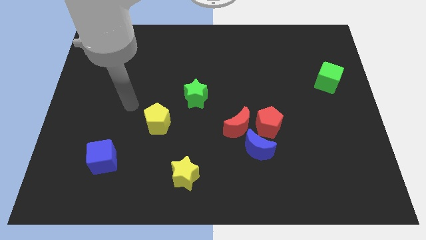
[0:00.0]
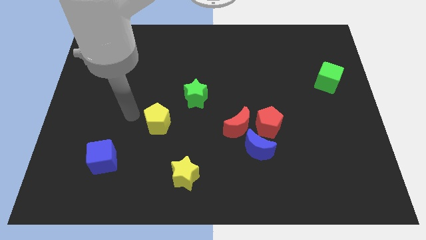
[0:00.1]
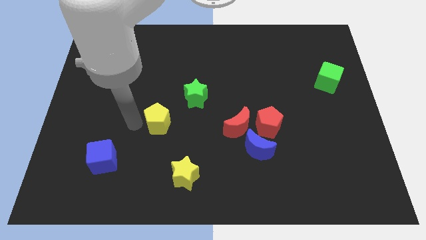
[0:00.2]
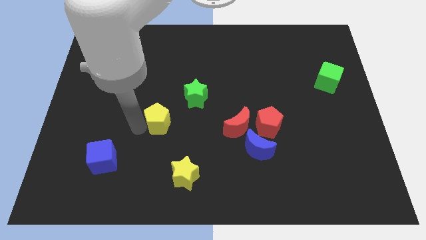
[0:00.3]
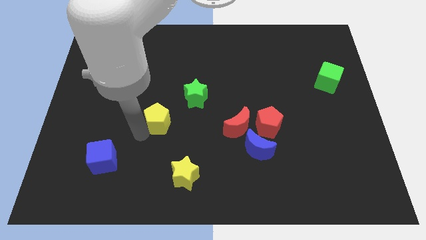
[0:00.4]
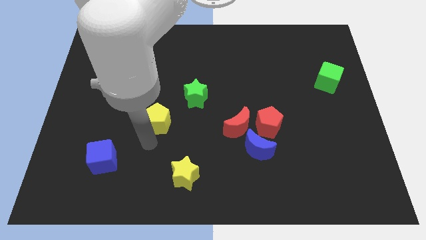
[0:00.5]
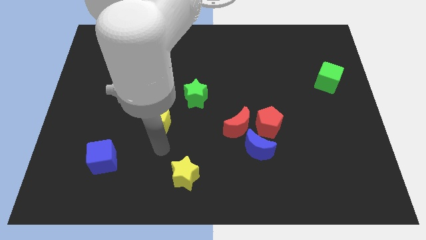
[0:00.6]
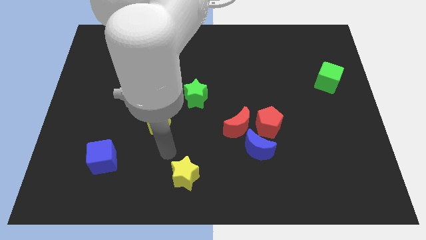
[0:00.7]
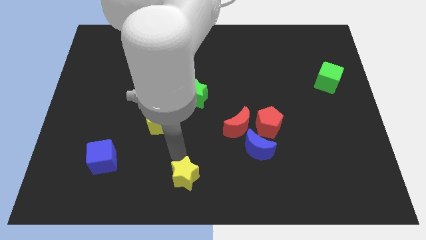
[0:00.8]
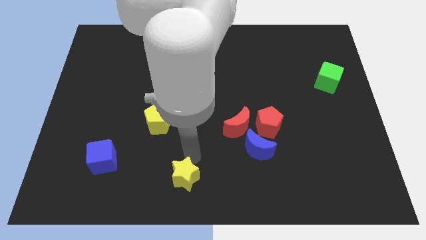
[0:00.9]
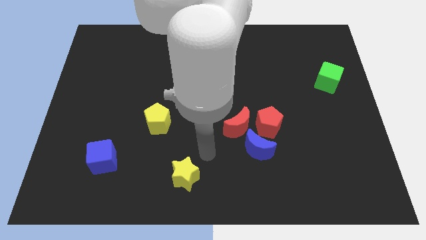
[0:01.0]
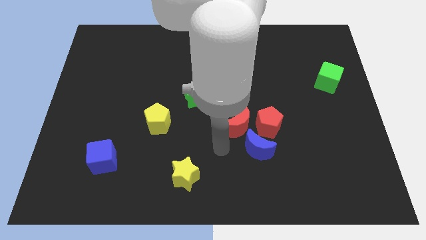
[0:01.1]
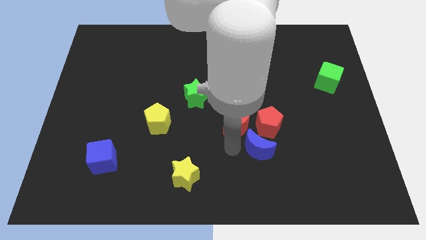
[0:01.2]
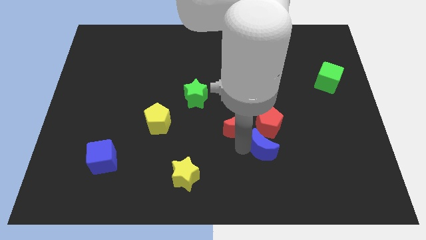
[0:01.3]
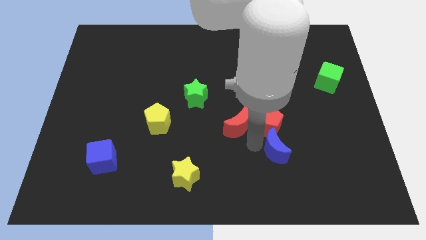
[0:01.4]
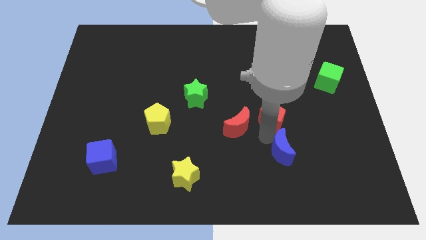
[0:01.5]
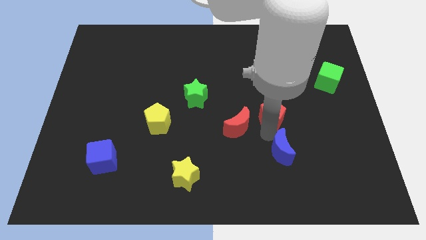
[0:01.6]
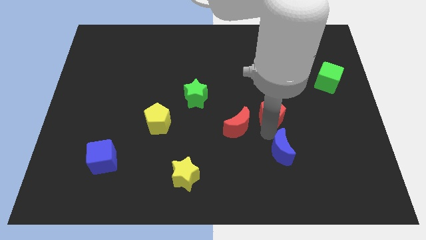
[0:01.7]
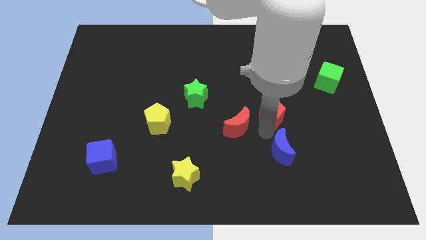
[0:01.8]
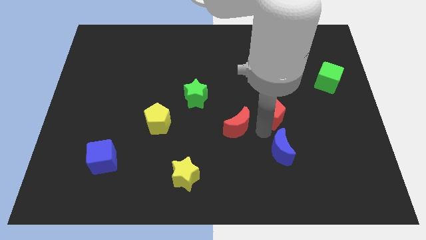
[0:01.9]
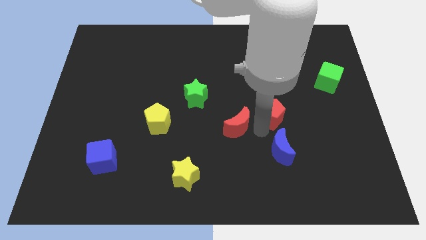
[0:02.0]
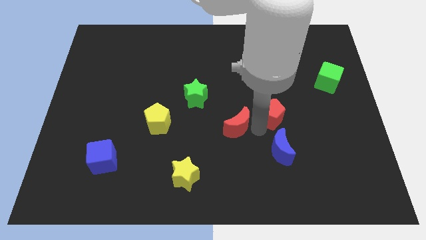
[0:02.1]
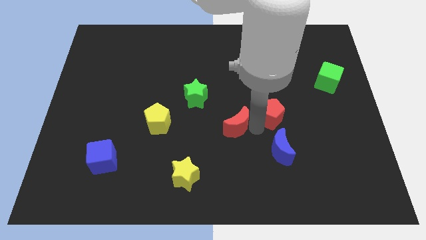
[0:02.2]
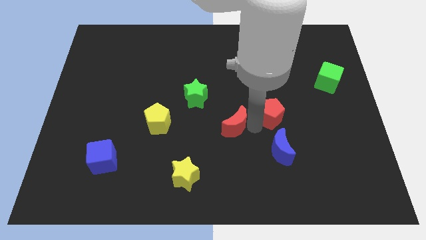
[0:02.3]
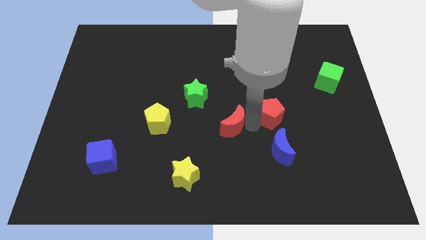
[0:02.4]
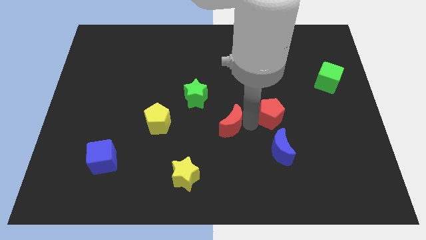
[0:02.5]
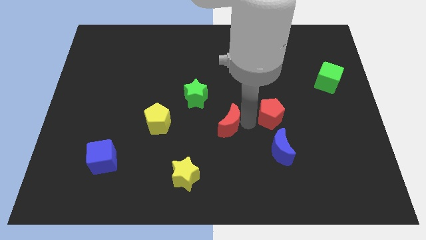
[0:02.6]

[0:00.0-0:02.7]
separate the red moon from the red pentagon and blue moon

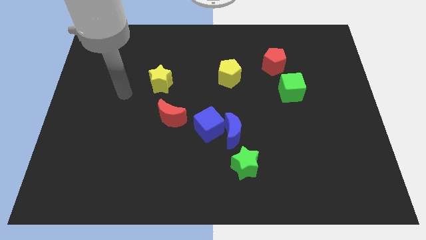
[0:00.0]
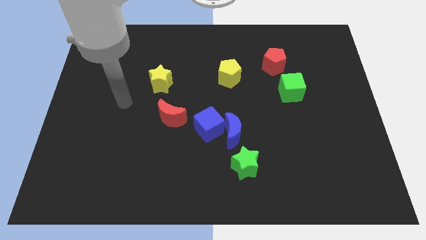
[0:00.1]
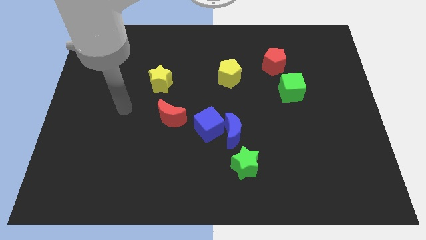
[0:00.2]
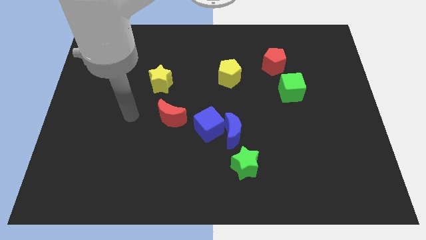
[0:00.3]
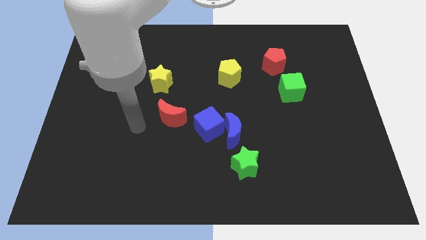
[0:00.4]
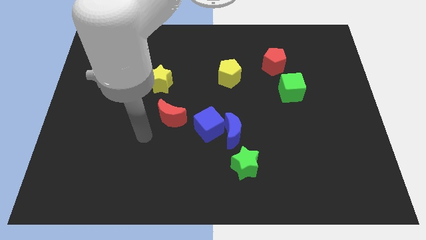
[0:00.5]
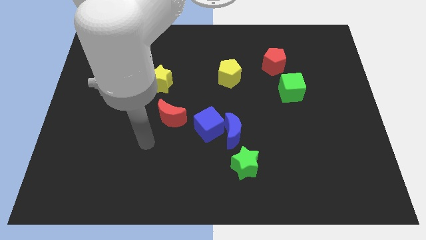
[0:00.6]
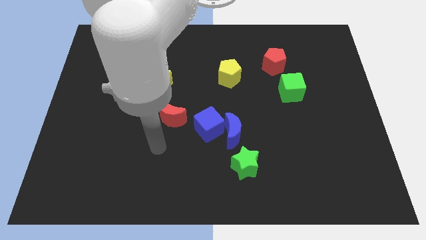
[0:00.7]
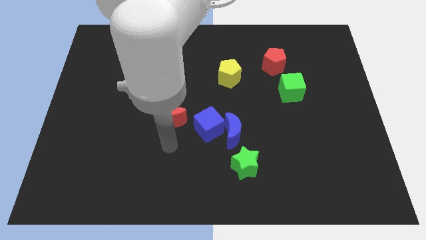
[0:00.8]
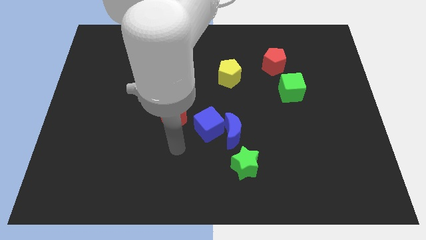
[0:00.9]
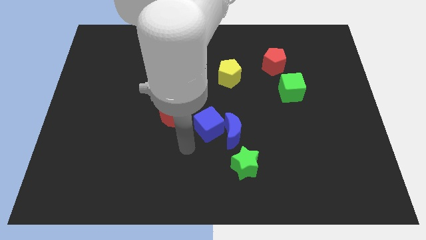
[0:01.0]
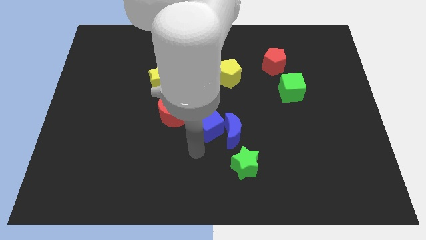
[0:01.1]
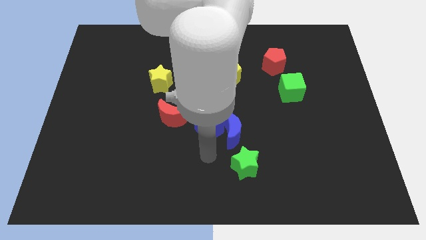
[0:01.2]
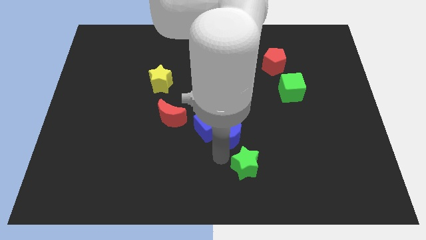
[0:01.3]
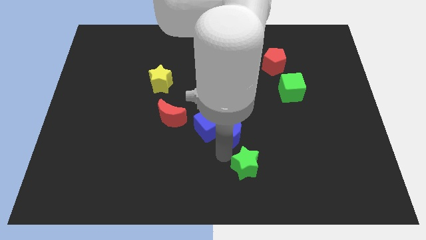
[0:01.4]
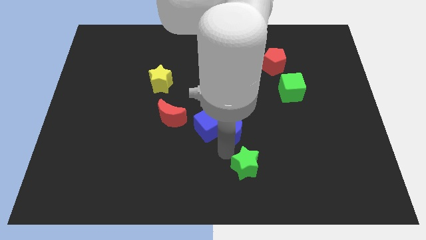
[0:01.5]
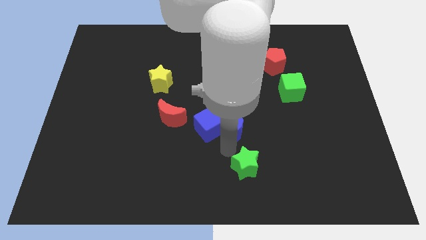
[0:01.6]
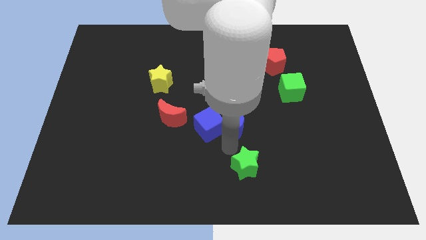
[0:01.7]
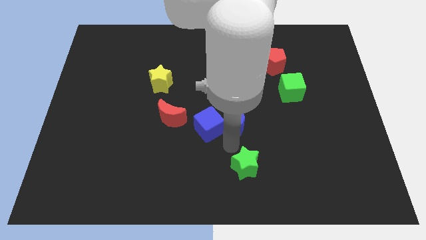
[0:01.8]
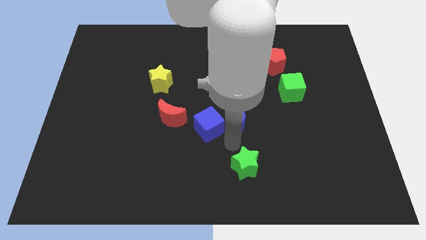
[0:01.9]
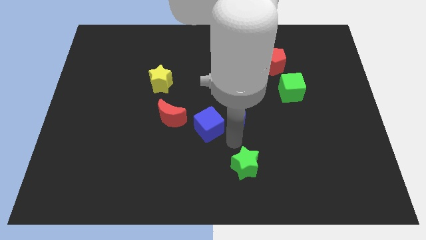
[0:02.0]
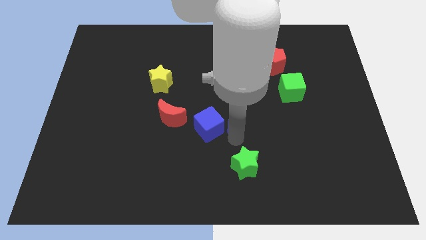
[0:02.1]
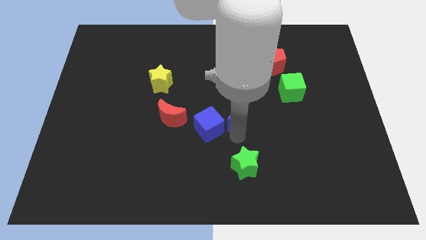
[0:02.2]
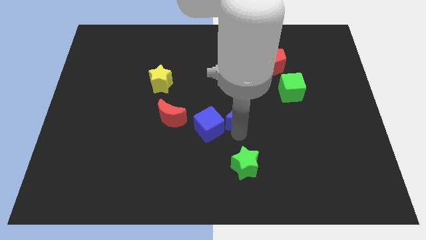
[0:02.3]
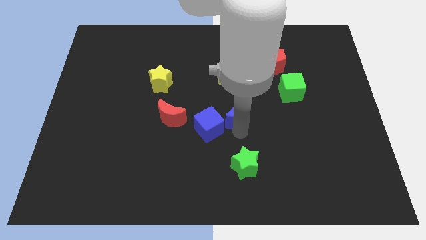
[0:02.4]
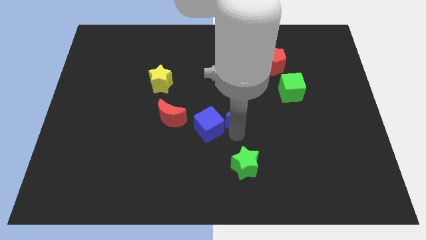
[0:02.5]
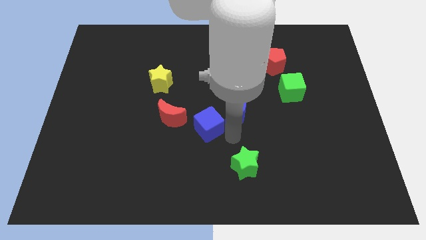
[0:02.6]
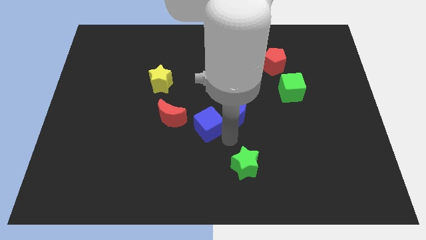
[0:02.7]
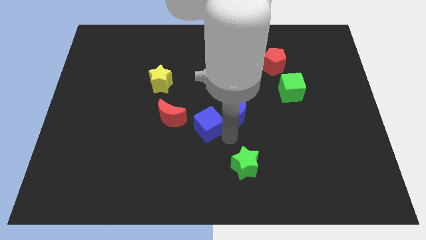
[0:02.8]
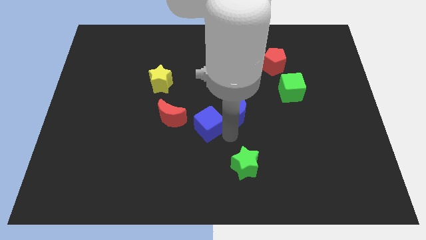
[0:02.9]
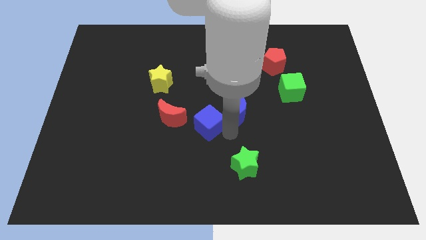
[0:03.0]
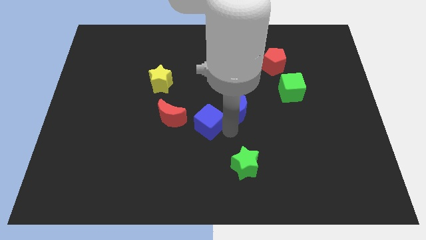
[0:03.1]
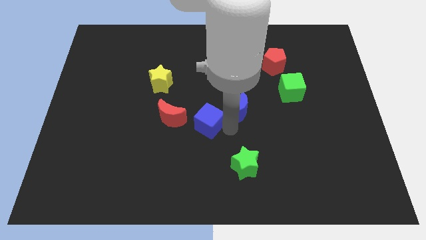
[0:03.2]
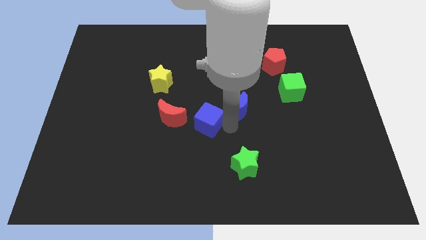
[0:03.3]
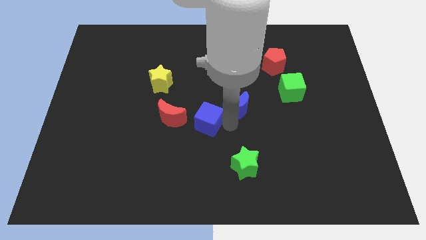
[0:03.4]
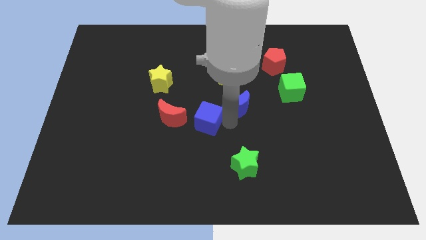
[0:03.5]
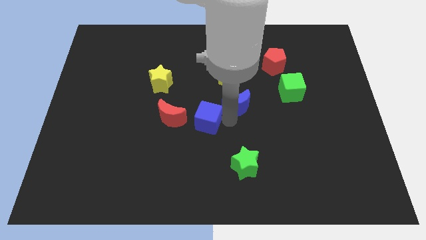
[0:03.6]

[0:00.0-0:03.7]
separate the blue moon from the blue cube and green star

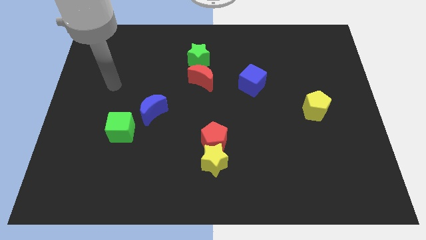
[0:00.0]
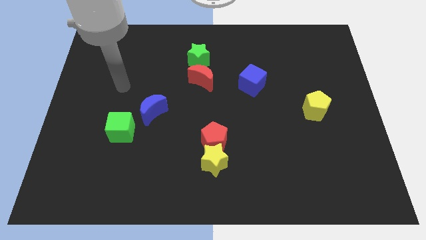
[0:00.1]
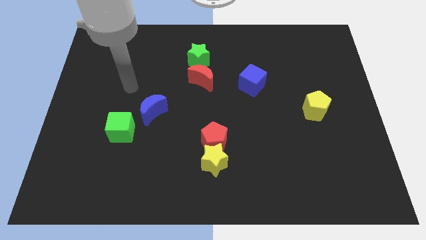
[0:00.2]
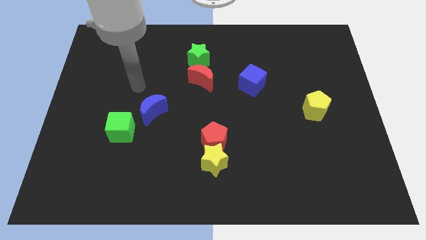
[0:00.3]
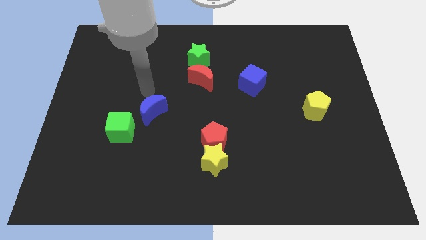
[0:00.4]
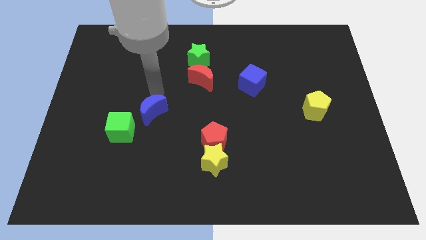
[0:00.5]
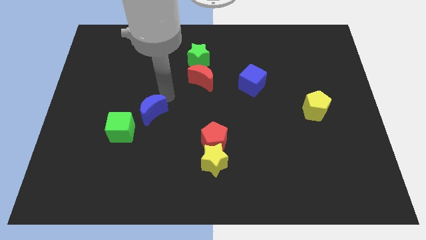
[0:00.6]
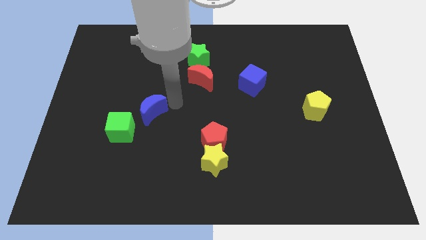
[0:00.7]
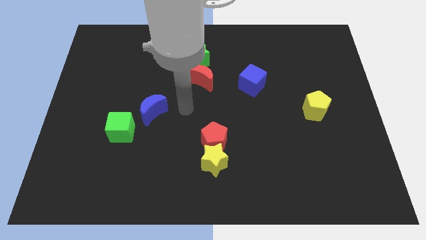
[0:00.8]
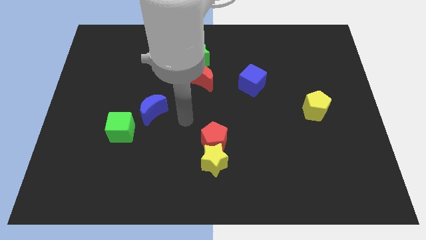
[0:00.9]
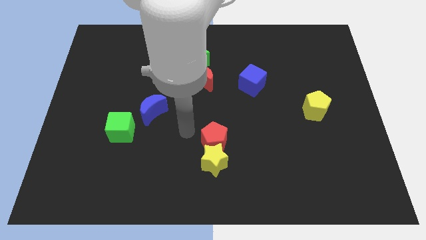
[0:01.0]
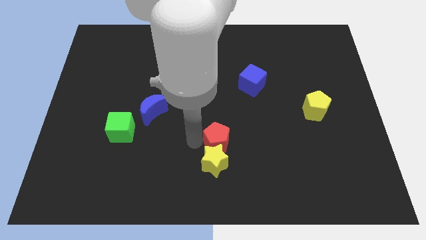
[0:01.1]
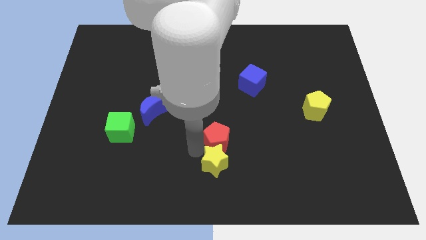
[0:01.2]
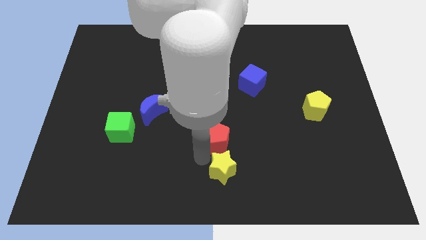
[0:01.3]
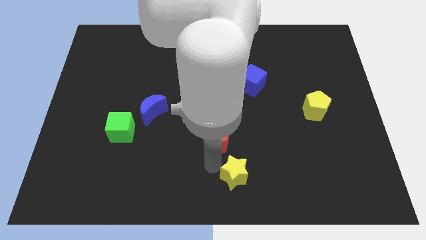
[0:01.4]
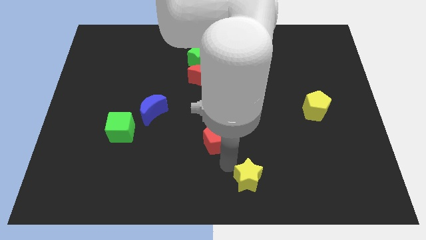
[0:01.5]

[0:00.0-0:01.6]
pull the red pentagon apart from the yellow star

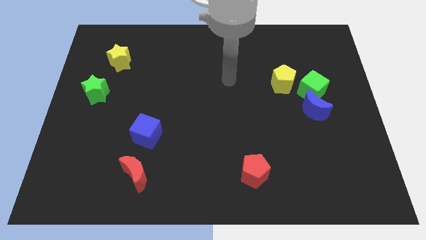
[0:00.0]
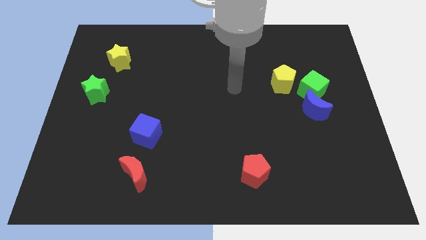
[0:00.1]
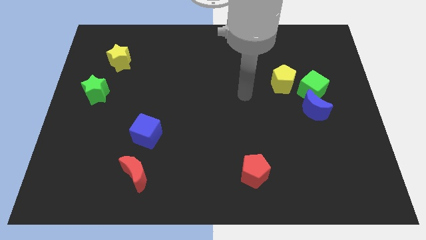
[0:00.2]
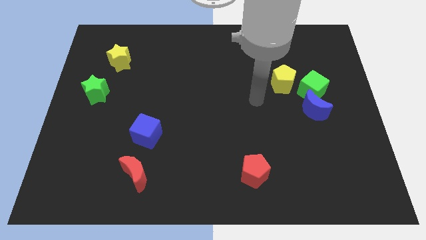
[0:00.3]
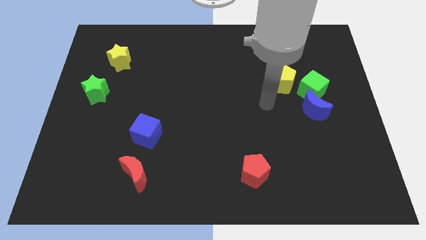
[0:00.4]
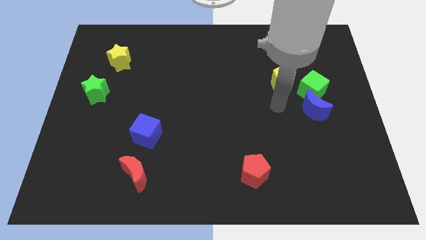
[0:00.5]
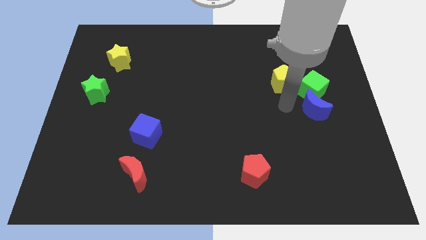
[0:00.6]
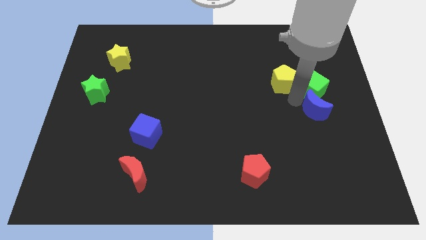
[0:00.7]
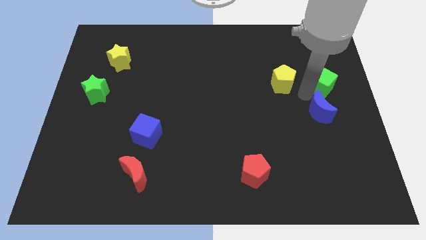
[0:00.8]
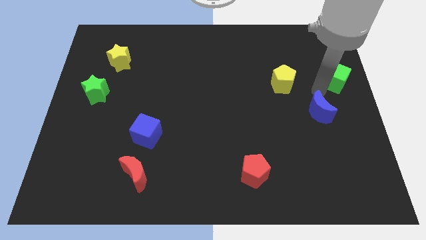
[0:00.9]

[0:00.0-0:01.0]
pull the blue moon apart from the green cube

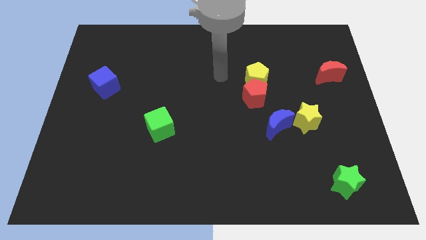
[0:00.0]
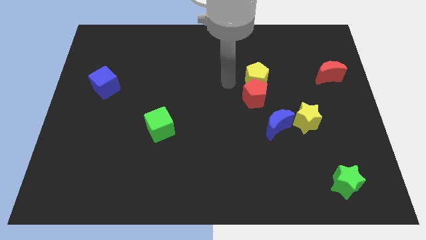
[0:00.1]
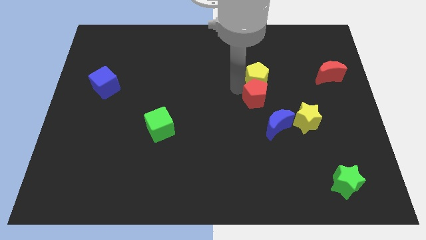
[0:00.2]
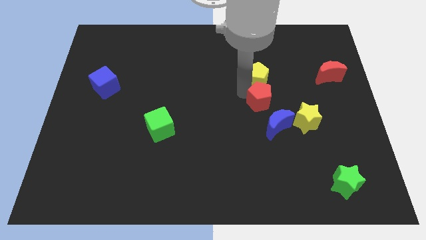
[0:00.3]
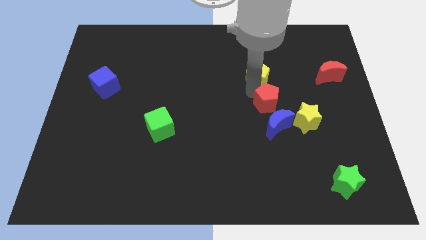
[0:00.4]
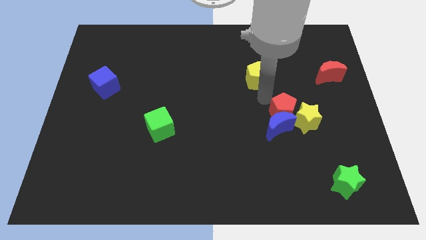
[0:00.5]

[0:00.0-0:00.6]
separate the yellow pentagon from the red pentagon
